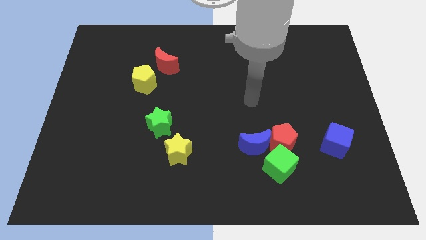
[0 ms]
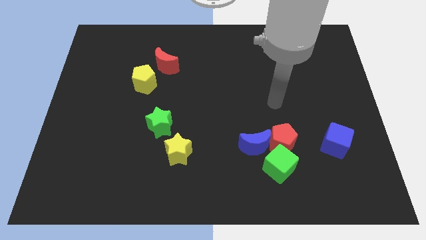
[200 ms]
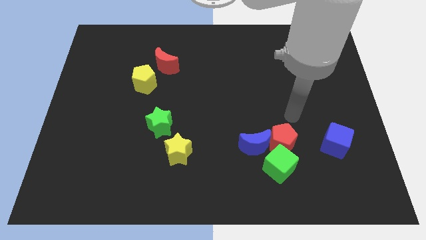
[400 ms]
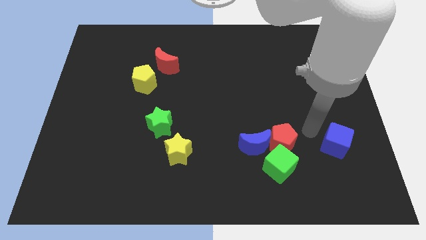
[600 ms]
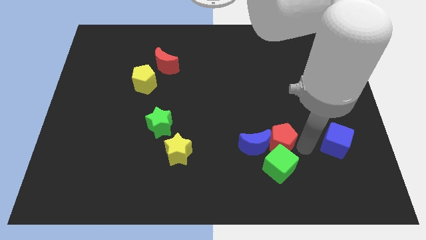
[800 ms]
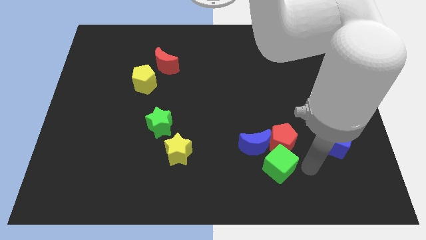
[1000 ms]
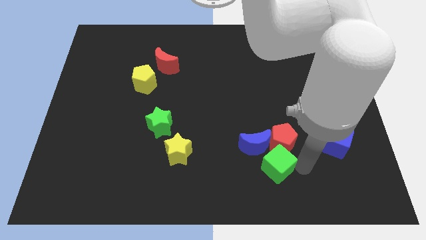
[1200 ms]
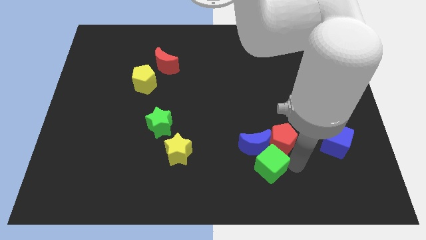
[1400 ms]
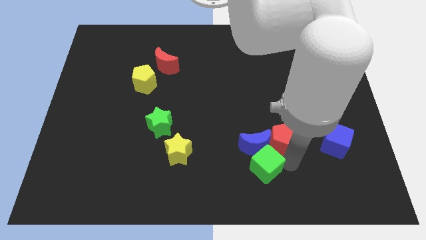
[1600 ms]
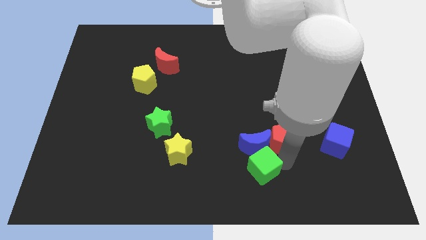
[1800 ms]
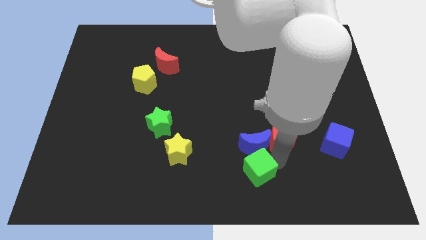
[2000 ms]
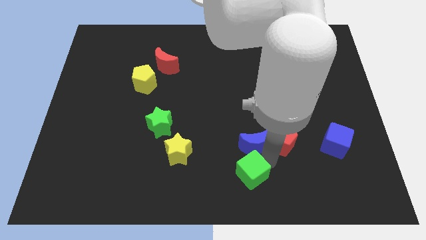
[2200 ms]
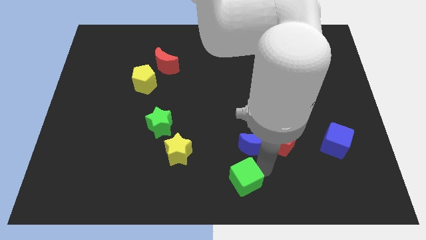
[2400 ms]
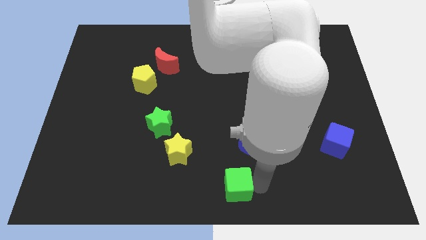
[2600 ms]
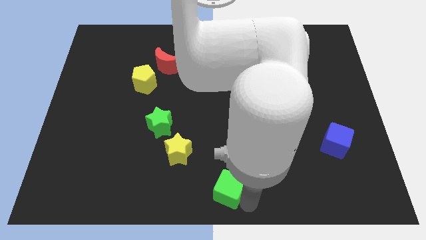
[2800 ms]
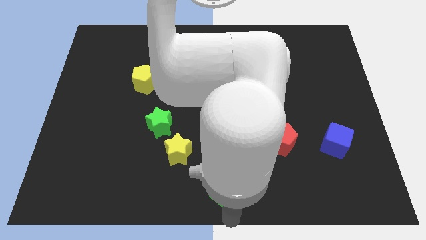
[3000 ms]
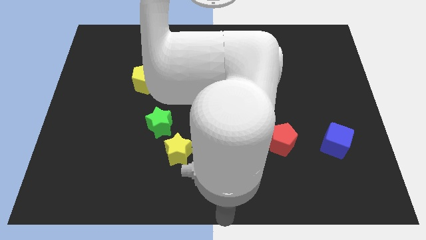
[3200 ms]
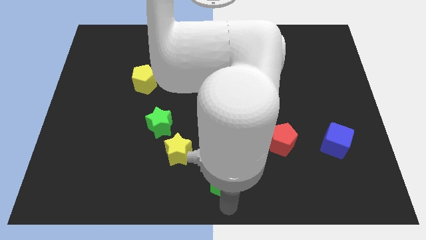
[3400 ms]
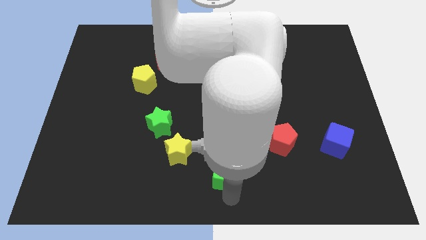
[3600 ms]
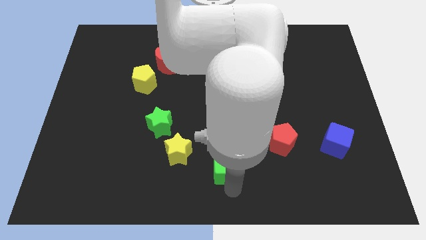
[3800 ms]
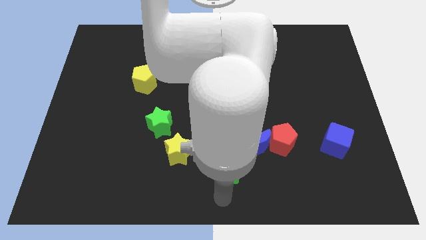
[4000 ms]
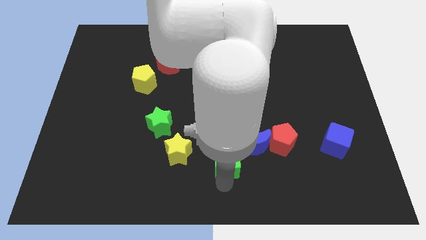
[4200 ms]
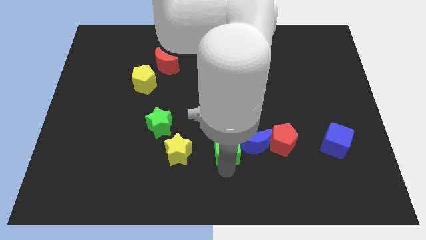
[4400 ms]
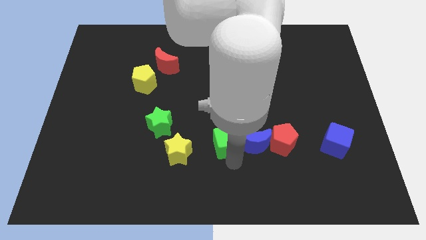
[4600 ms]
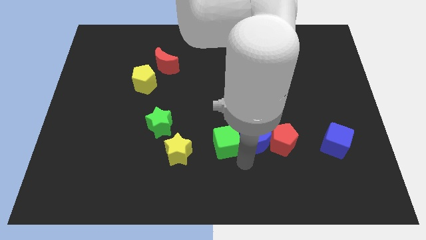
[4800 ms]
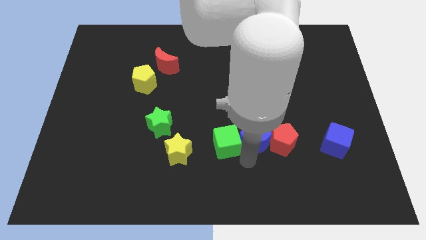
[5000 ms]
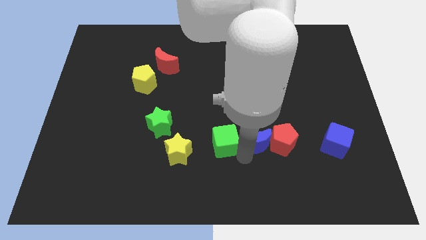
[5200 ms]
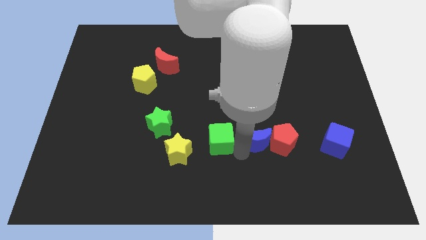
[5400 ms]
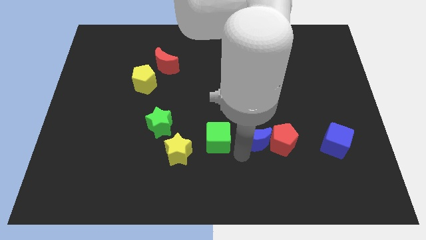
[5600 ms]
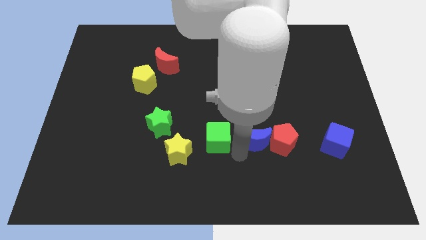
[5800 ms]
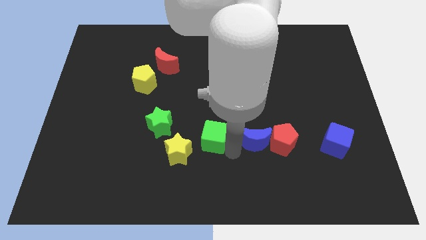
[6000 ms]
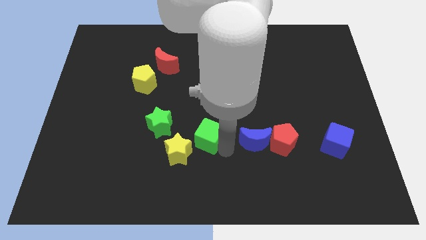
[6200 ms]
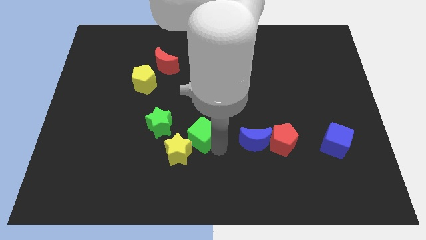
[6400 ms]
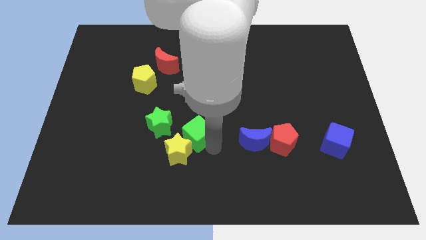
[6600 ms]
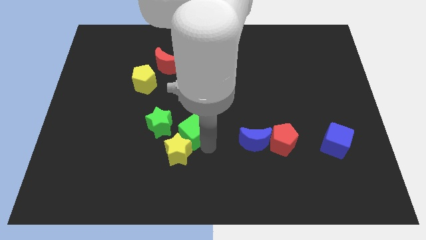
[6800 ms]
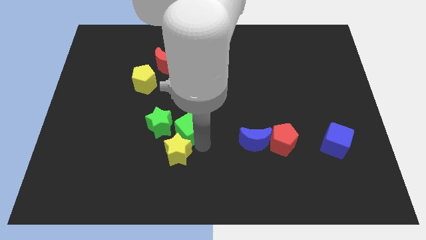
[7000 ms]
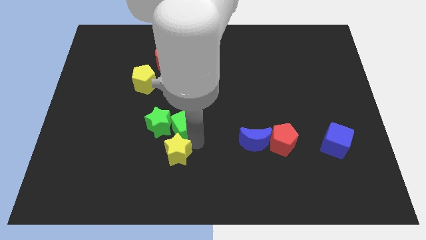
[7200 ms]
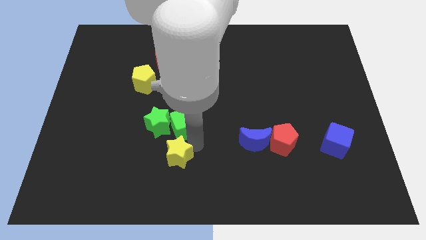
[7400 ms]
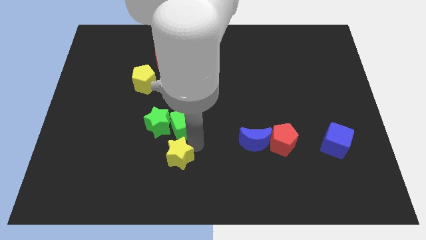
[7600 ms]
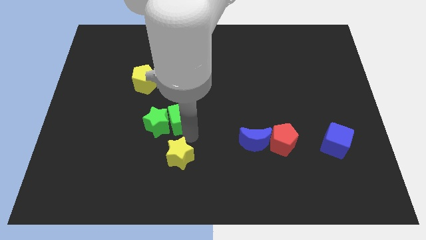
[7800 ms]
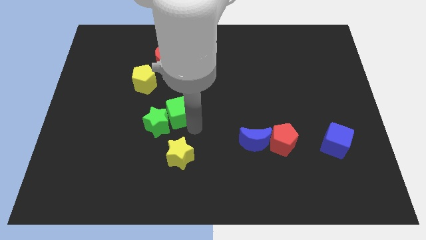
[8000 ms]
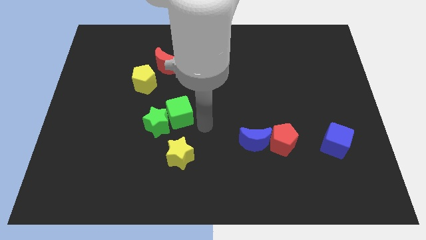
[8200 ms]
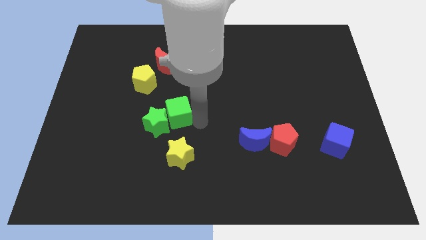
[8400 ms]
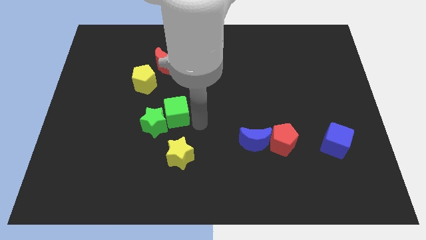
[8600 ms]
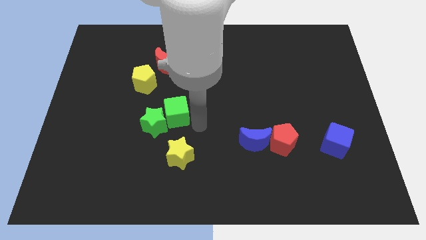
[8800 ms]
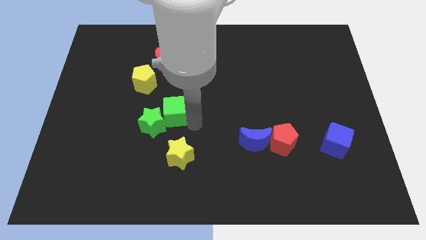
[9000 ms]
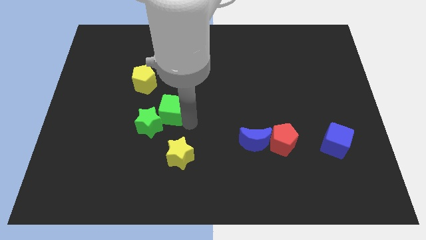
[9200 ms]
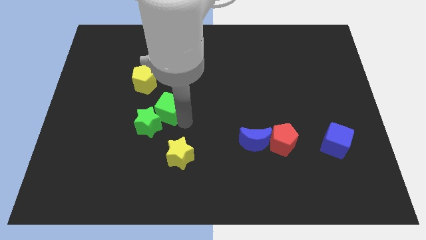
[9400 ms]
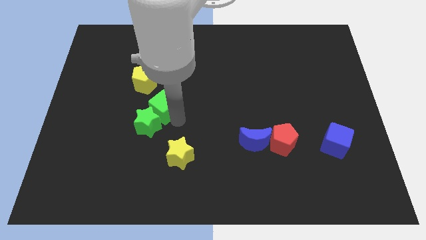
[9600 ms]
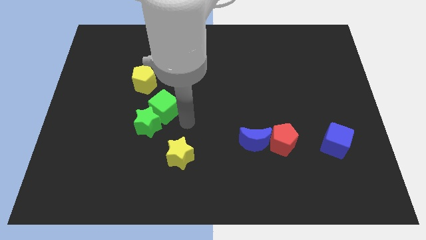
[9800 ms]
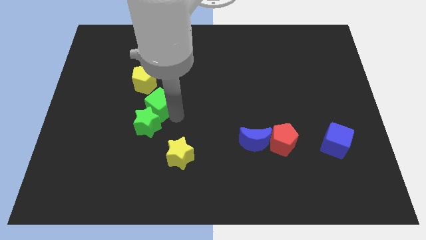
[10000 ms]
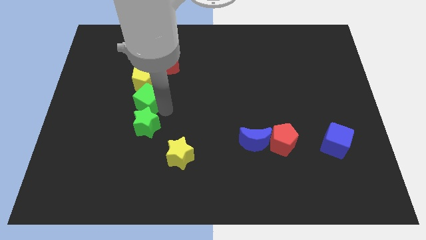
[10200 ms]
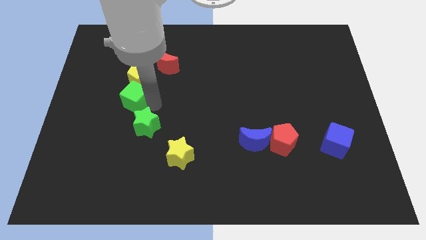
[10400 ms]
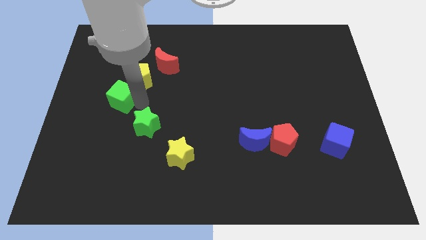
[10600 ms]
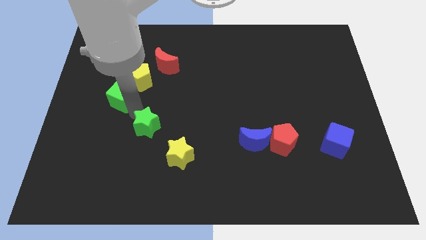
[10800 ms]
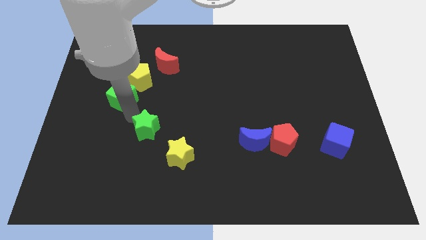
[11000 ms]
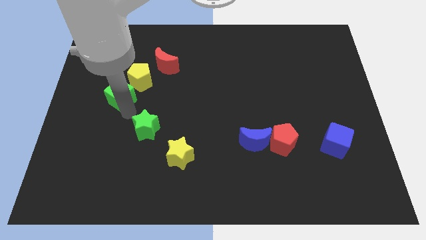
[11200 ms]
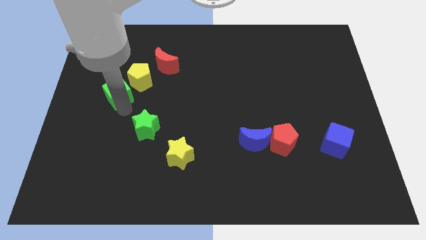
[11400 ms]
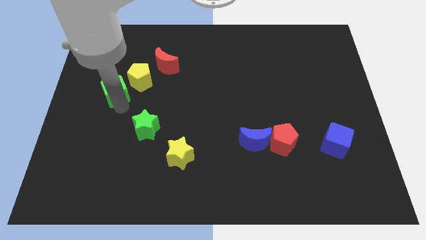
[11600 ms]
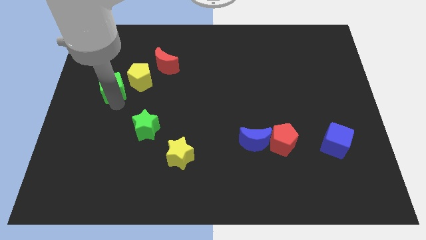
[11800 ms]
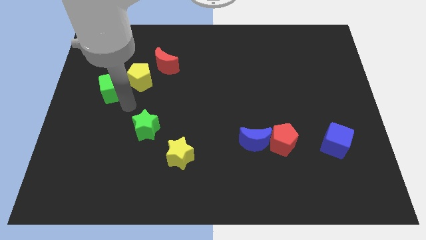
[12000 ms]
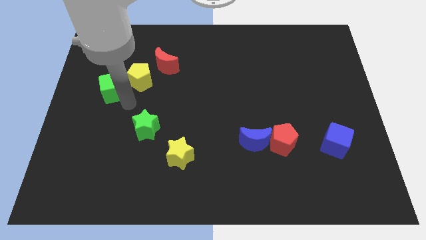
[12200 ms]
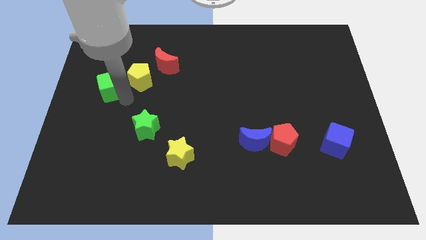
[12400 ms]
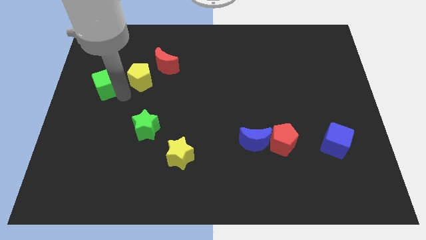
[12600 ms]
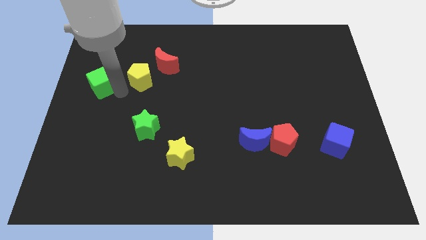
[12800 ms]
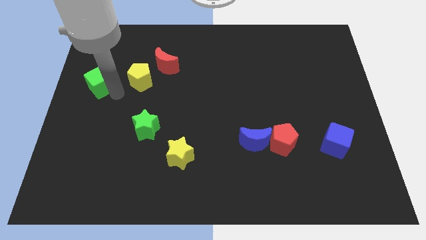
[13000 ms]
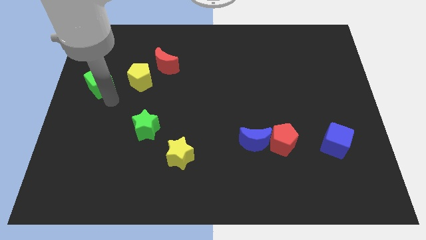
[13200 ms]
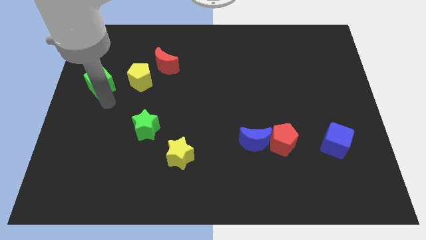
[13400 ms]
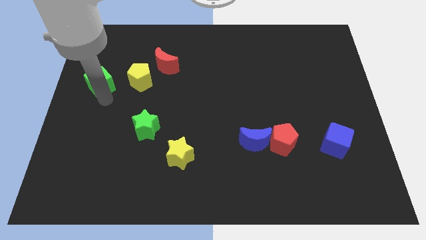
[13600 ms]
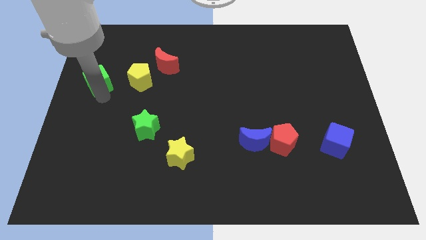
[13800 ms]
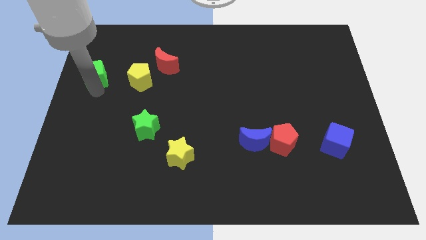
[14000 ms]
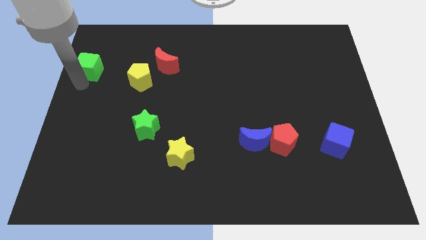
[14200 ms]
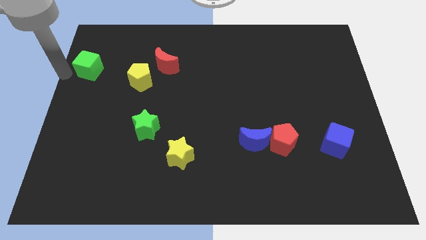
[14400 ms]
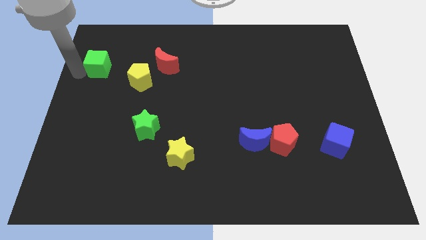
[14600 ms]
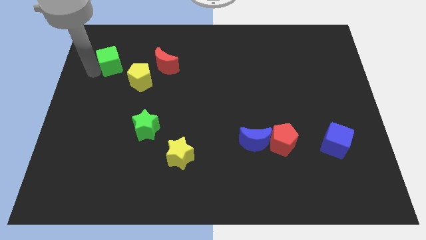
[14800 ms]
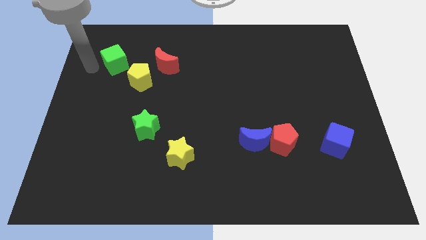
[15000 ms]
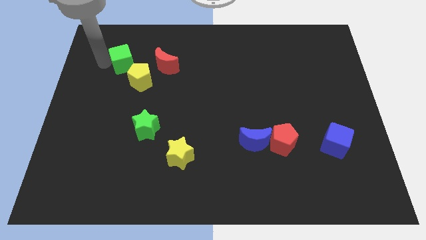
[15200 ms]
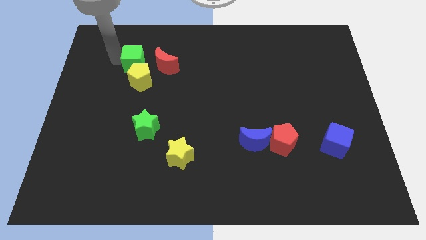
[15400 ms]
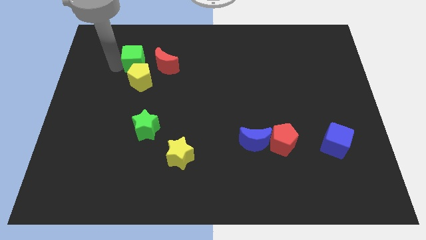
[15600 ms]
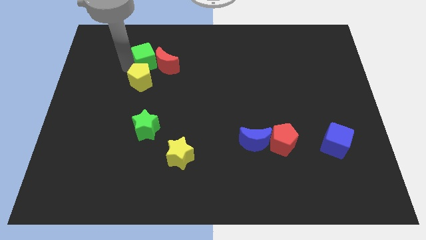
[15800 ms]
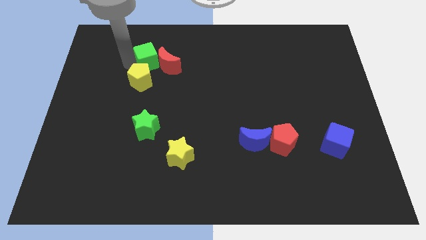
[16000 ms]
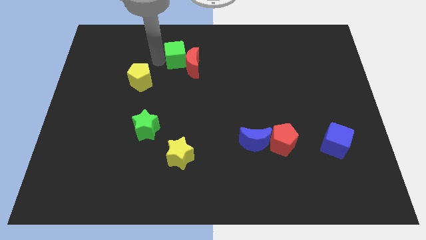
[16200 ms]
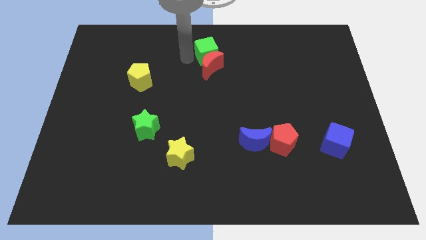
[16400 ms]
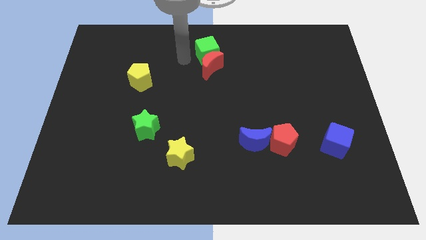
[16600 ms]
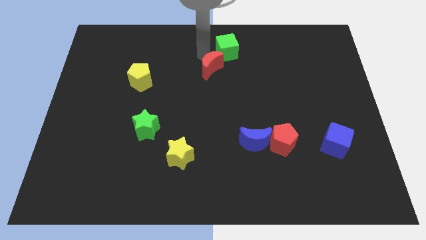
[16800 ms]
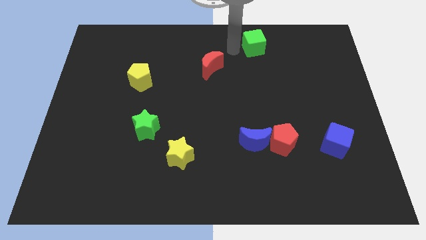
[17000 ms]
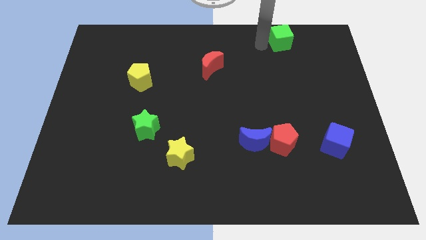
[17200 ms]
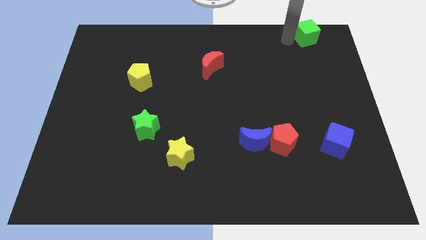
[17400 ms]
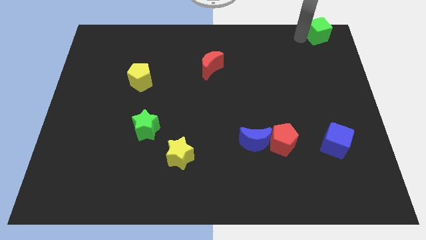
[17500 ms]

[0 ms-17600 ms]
put the green cube to the top right of the board
